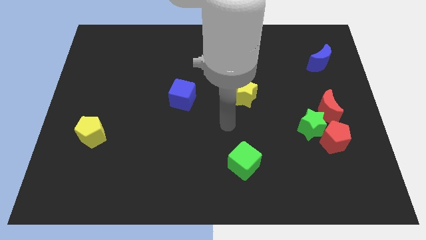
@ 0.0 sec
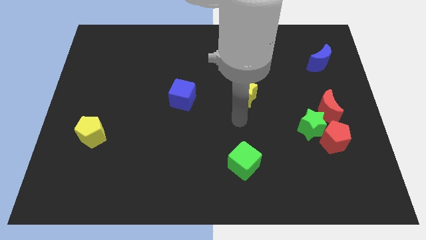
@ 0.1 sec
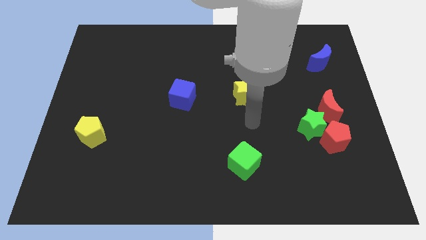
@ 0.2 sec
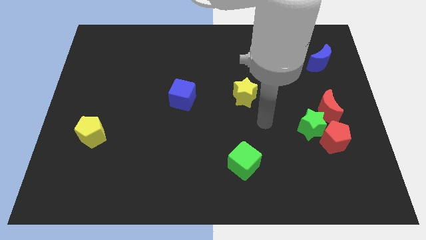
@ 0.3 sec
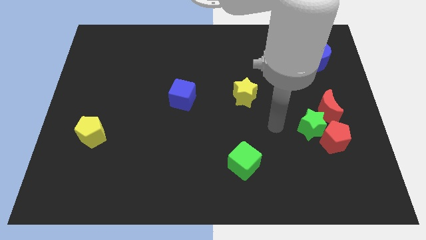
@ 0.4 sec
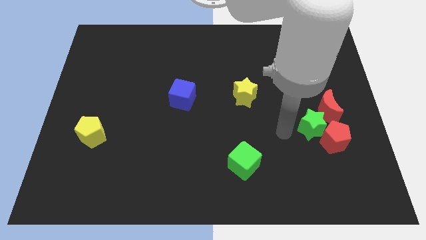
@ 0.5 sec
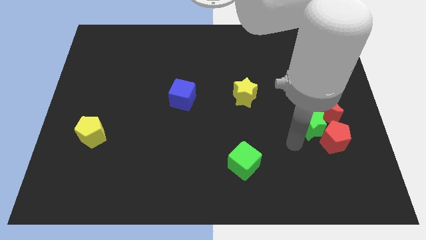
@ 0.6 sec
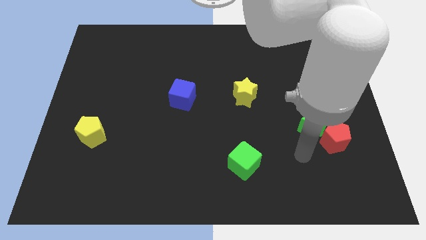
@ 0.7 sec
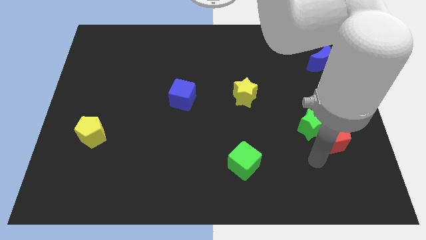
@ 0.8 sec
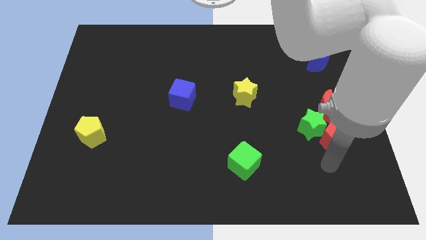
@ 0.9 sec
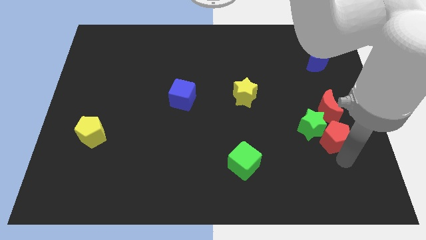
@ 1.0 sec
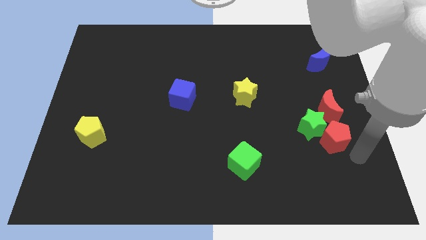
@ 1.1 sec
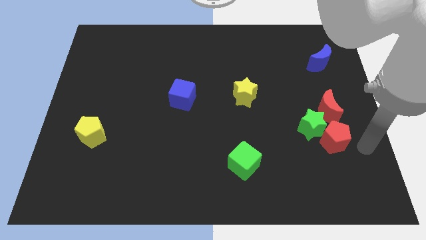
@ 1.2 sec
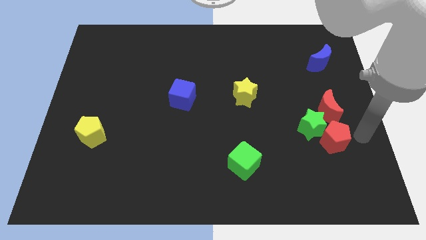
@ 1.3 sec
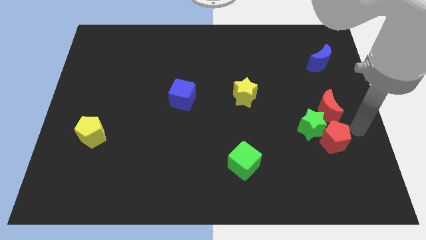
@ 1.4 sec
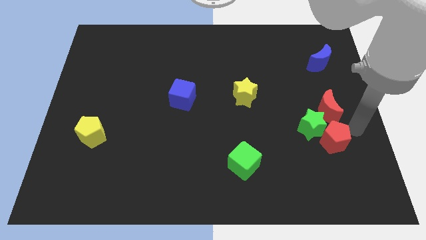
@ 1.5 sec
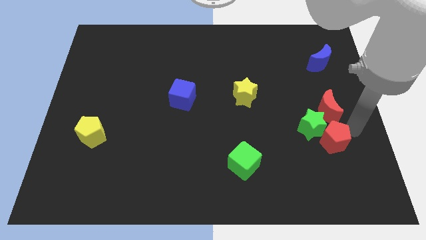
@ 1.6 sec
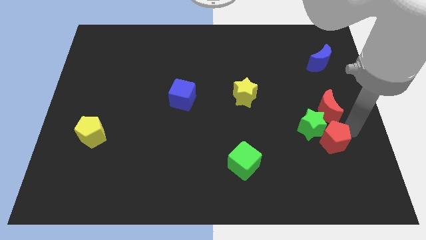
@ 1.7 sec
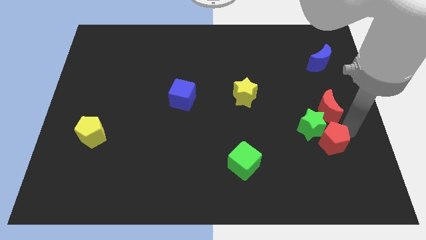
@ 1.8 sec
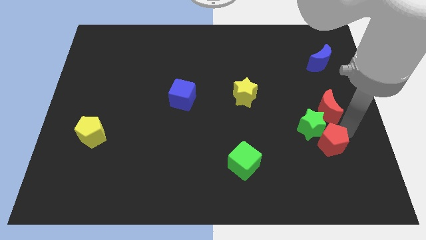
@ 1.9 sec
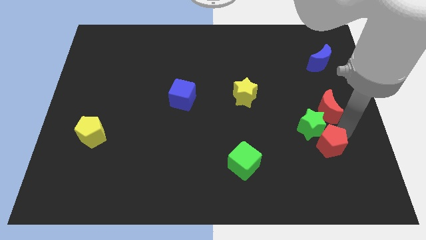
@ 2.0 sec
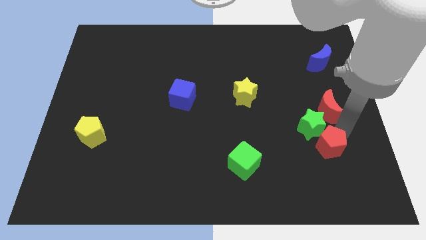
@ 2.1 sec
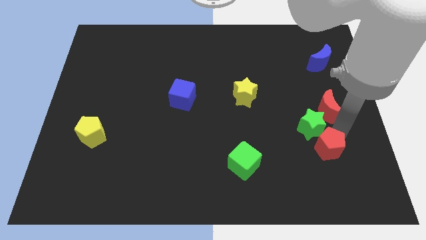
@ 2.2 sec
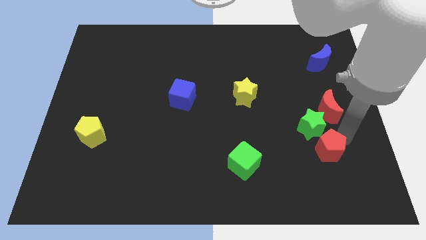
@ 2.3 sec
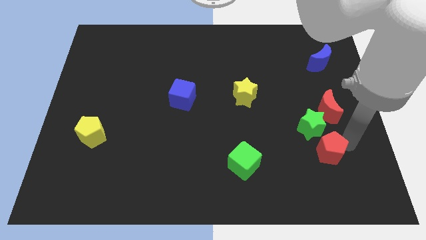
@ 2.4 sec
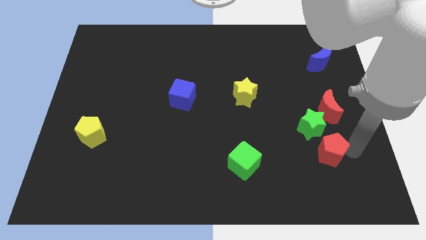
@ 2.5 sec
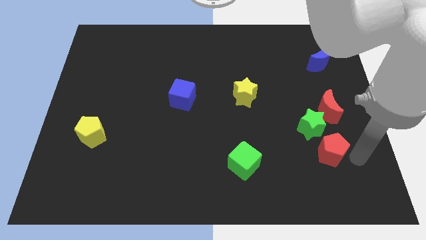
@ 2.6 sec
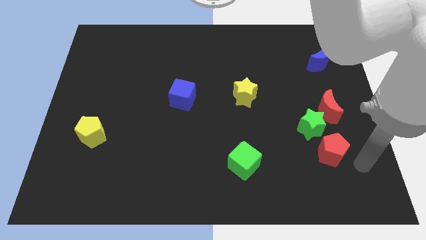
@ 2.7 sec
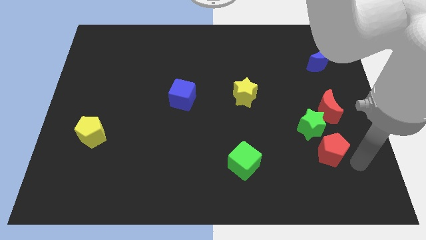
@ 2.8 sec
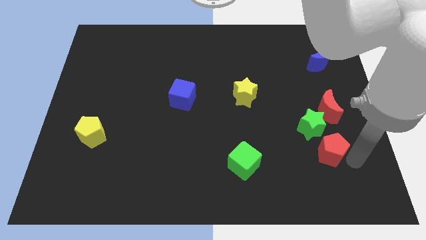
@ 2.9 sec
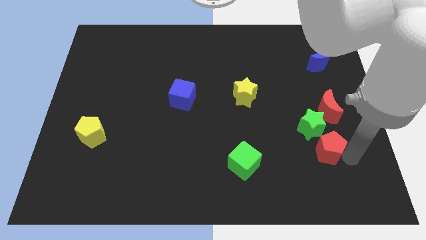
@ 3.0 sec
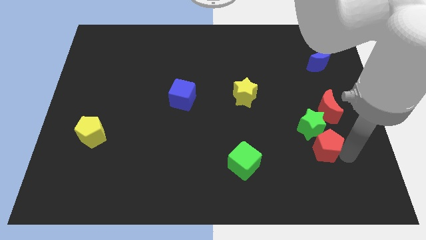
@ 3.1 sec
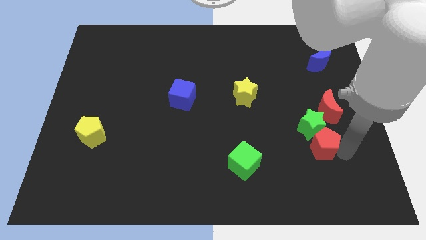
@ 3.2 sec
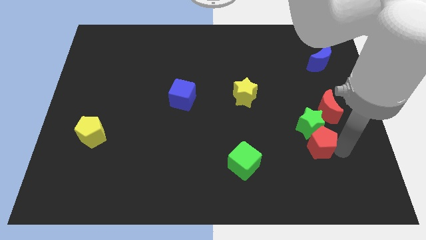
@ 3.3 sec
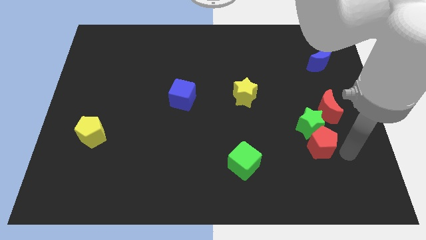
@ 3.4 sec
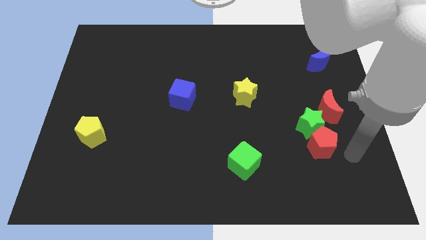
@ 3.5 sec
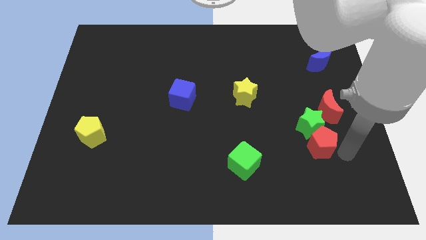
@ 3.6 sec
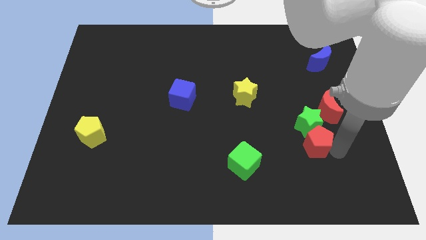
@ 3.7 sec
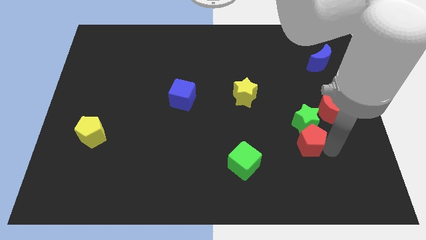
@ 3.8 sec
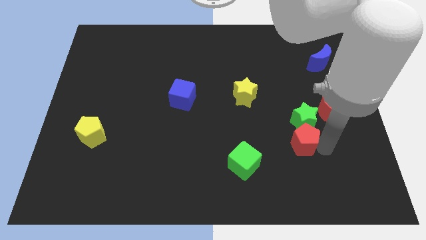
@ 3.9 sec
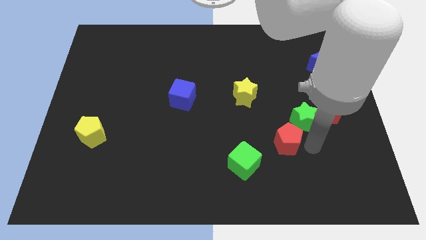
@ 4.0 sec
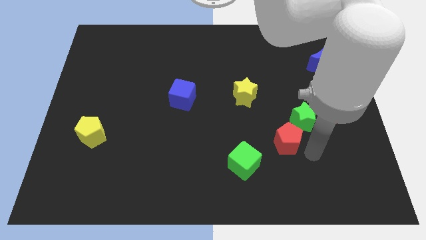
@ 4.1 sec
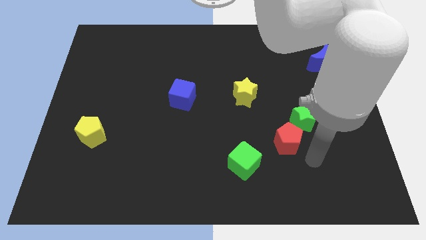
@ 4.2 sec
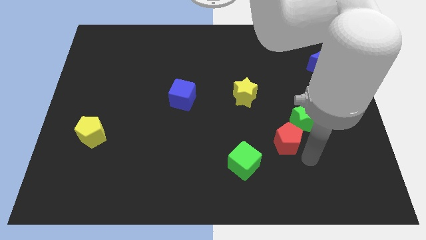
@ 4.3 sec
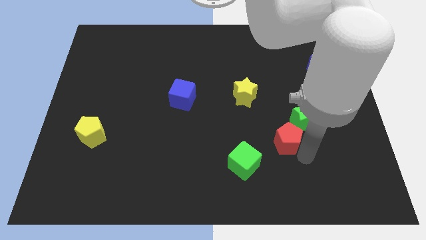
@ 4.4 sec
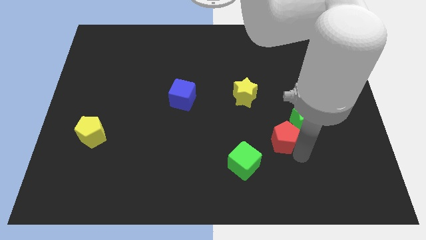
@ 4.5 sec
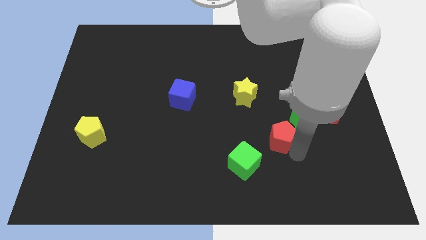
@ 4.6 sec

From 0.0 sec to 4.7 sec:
push the red pentagon to the left of the green star

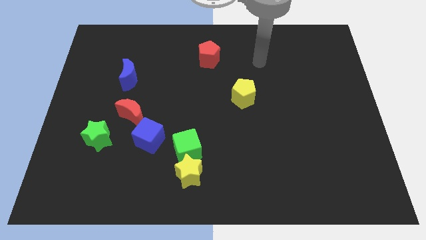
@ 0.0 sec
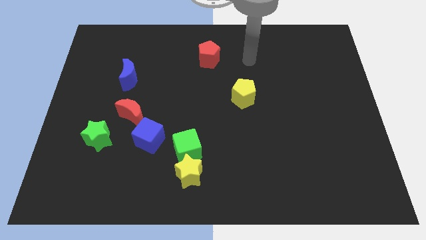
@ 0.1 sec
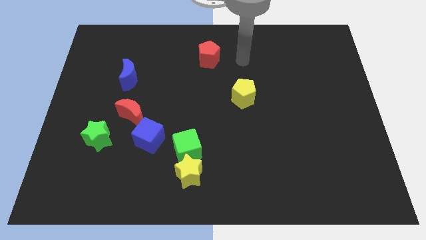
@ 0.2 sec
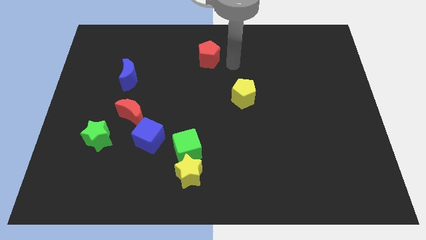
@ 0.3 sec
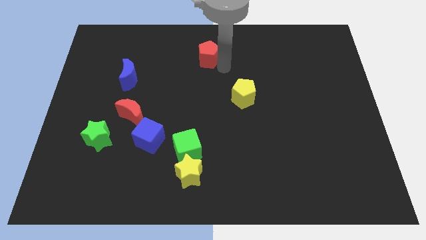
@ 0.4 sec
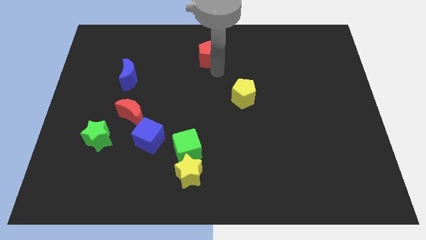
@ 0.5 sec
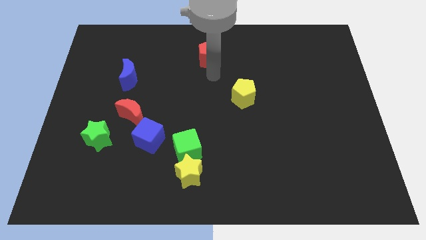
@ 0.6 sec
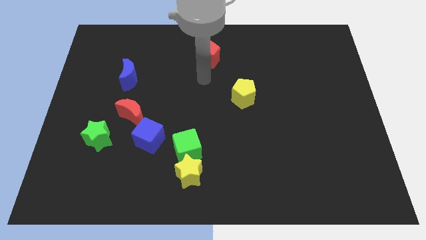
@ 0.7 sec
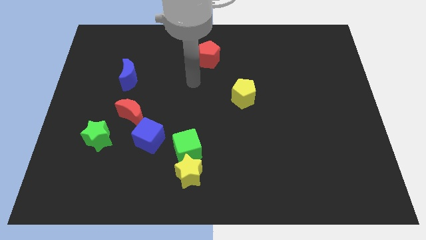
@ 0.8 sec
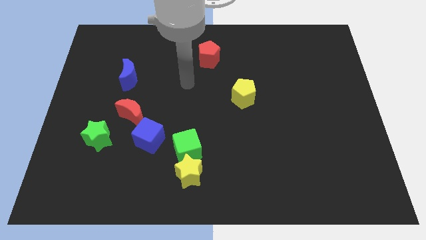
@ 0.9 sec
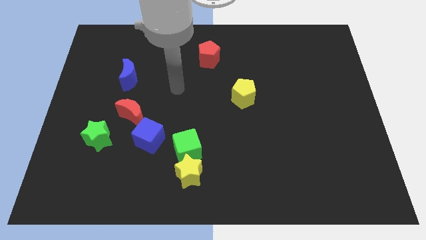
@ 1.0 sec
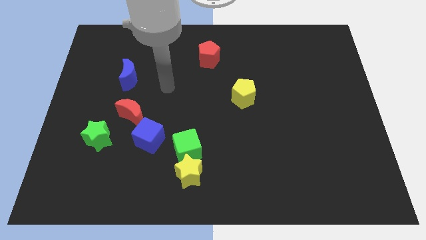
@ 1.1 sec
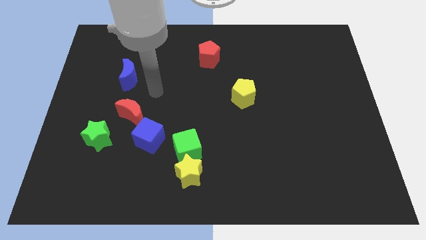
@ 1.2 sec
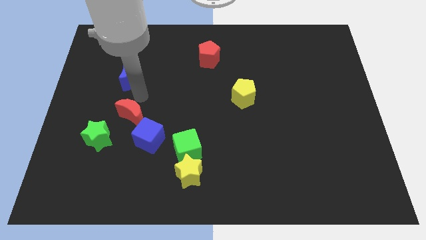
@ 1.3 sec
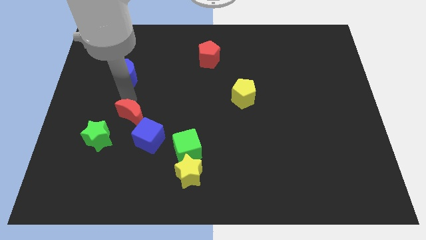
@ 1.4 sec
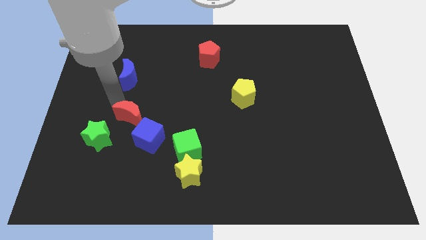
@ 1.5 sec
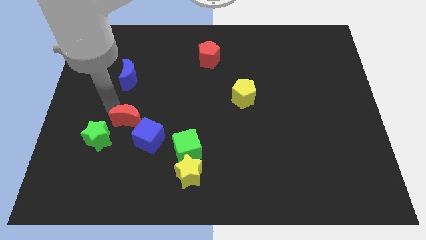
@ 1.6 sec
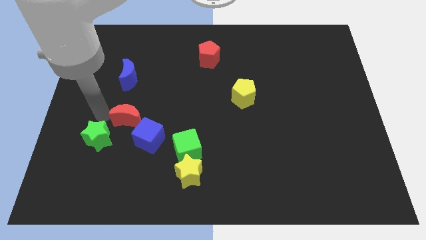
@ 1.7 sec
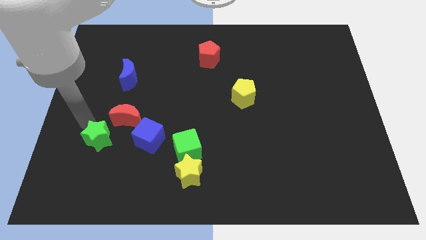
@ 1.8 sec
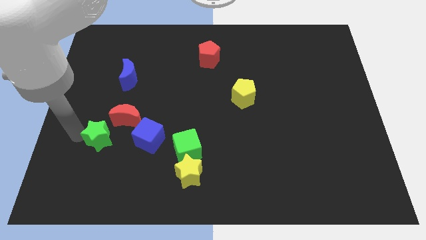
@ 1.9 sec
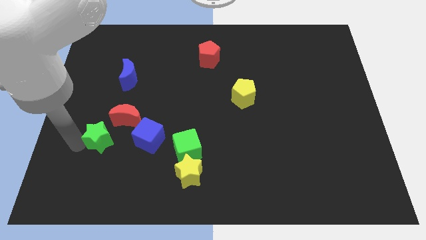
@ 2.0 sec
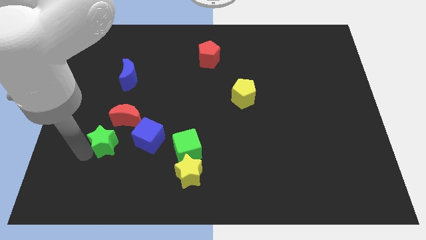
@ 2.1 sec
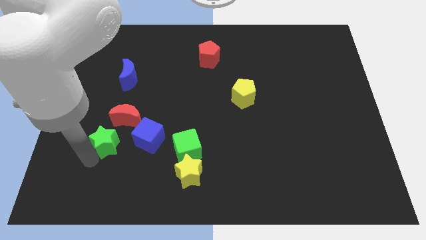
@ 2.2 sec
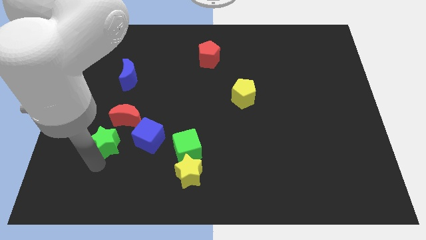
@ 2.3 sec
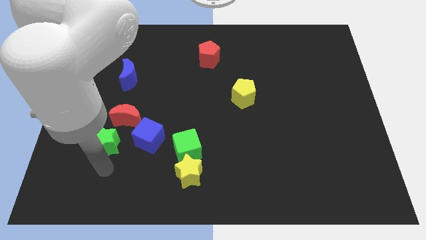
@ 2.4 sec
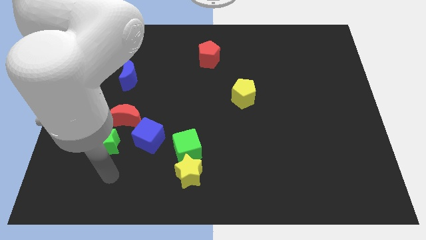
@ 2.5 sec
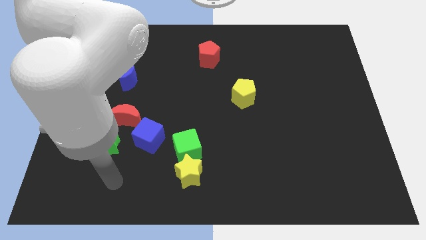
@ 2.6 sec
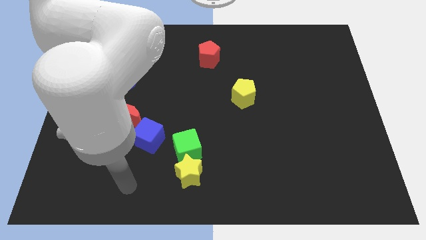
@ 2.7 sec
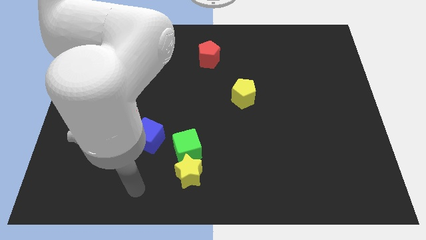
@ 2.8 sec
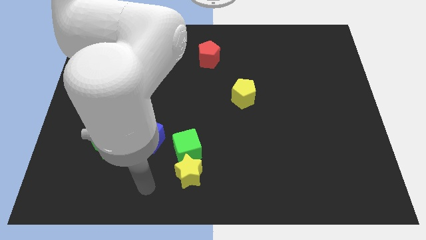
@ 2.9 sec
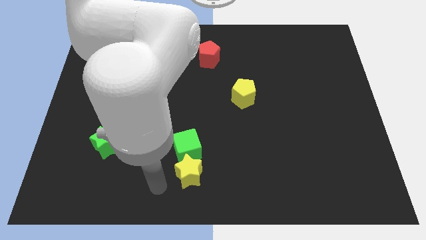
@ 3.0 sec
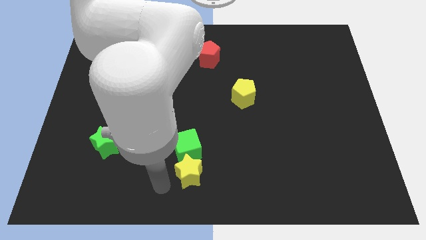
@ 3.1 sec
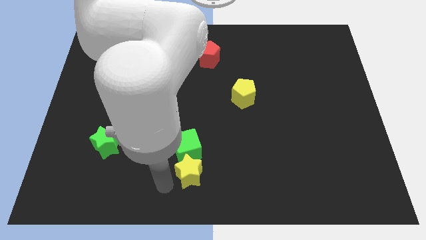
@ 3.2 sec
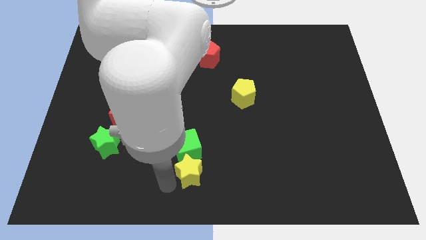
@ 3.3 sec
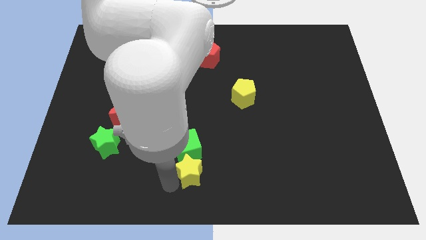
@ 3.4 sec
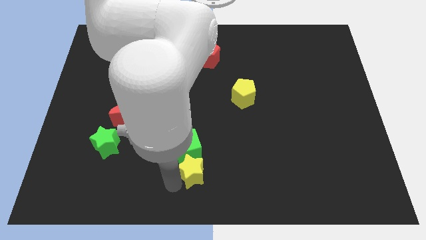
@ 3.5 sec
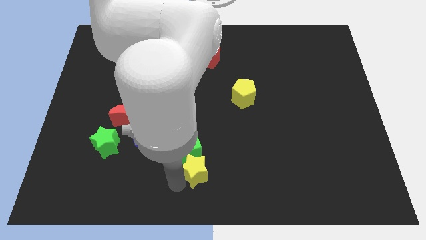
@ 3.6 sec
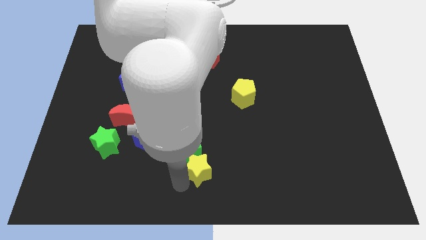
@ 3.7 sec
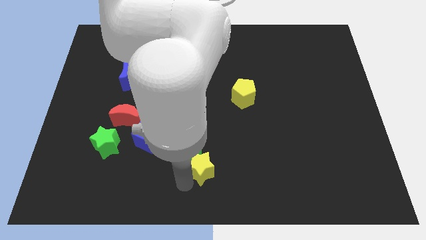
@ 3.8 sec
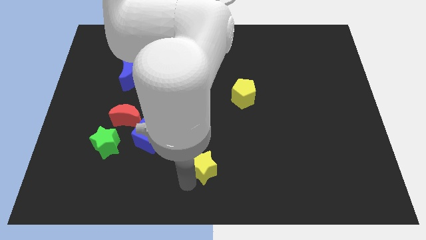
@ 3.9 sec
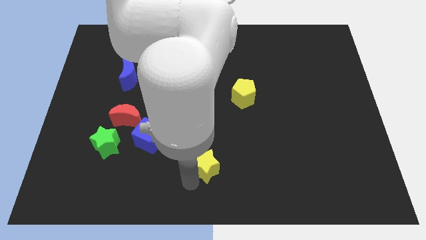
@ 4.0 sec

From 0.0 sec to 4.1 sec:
slide the yellow star to the right side of the green cube
